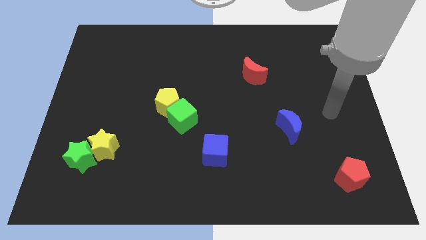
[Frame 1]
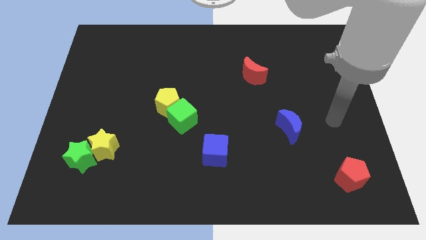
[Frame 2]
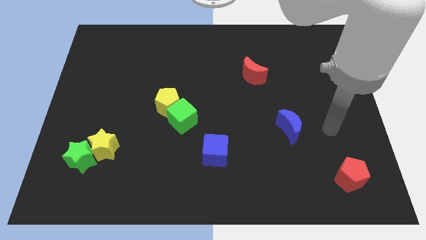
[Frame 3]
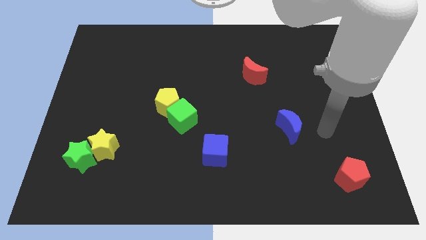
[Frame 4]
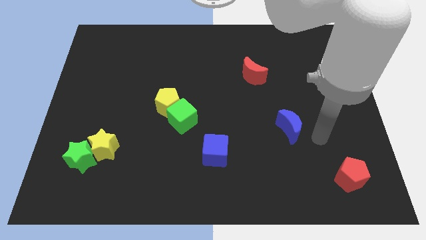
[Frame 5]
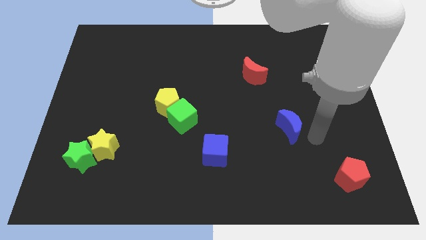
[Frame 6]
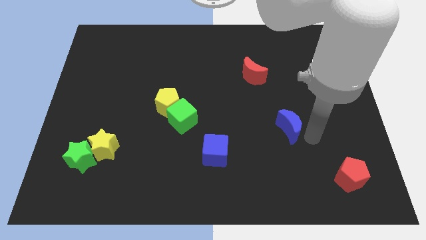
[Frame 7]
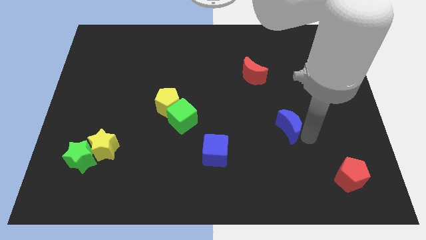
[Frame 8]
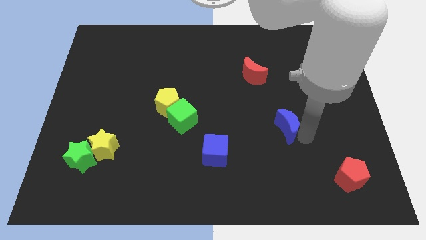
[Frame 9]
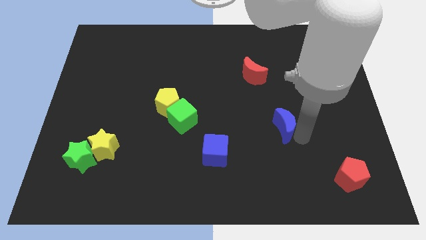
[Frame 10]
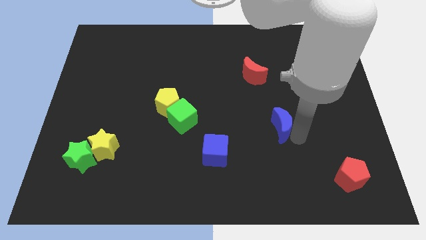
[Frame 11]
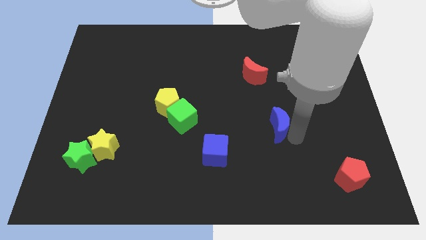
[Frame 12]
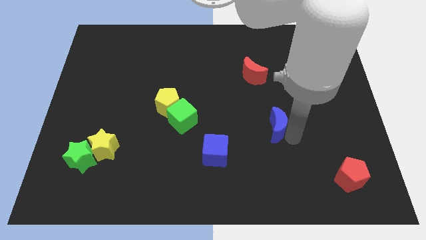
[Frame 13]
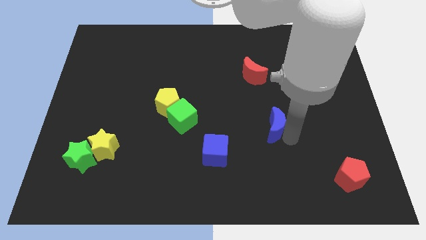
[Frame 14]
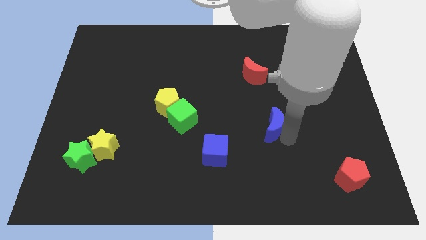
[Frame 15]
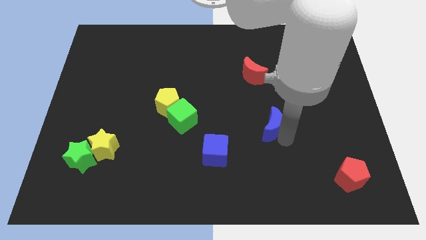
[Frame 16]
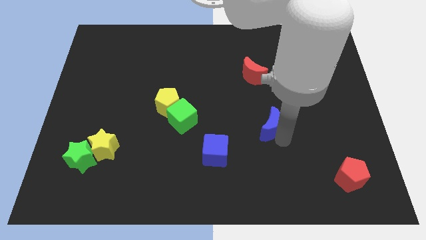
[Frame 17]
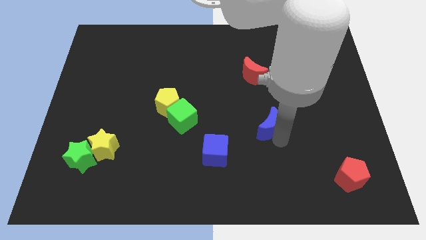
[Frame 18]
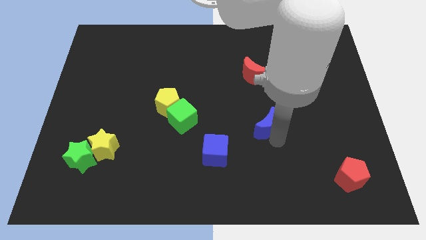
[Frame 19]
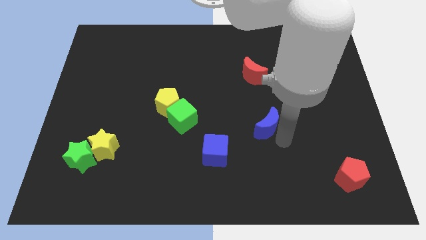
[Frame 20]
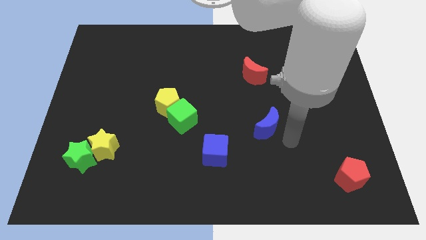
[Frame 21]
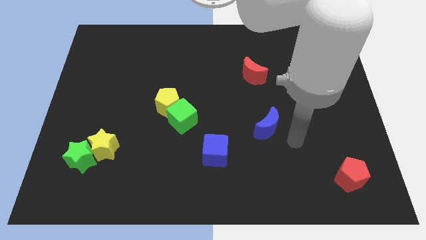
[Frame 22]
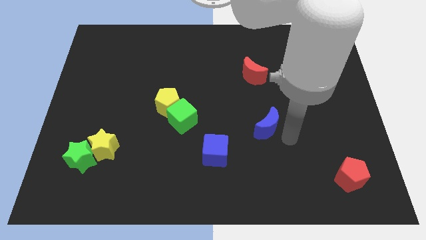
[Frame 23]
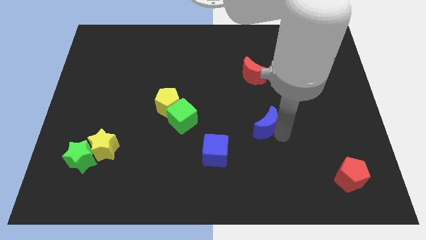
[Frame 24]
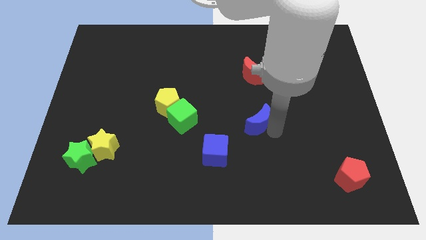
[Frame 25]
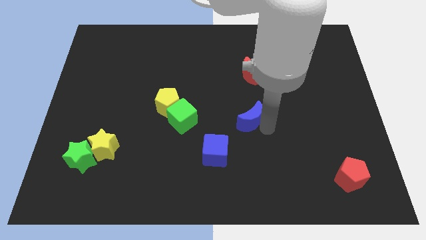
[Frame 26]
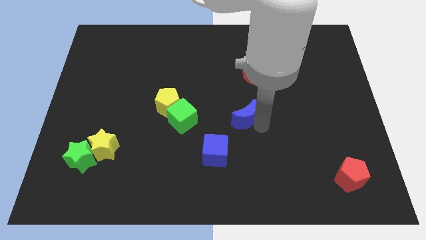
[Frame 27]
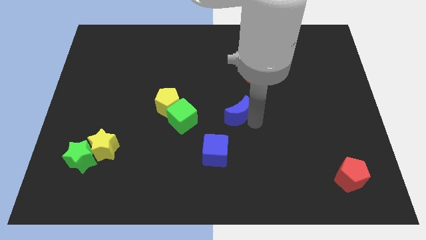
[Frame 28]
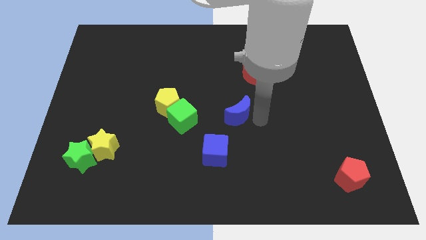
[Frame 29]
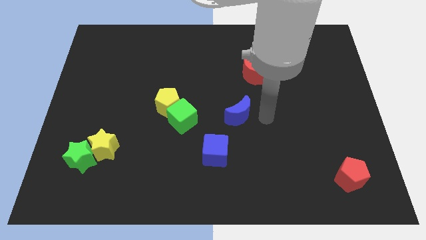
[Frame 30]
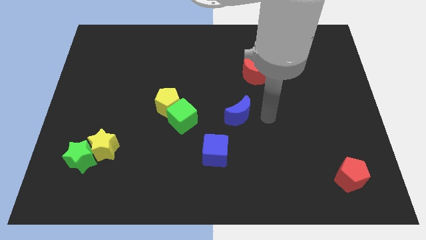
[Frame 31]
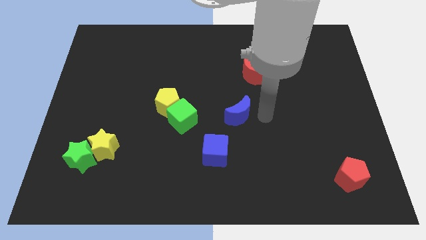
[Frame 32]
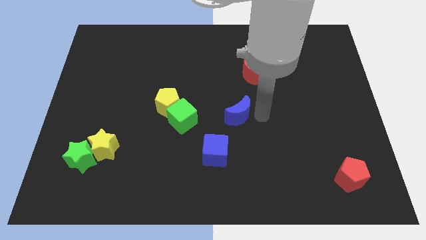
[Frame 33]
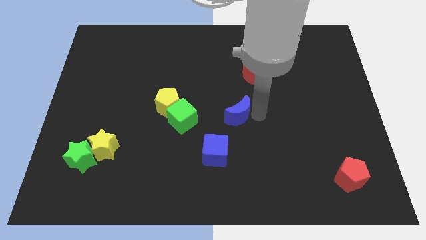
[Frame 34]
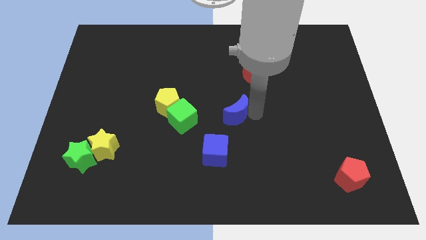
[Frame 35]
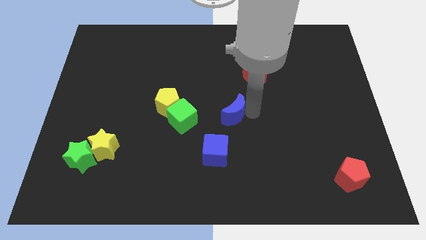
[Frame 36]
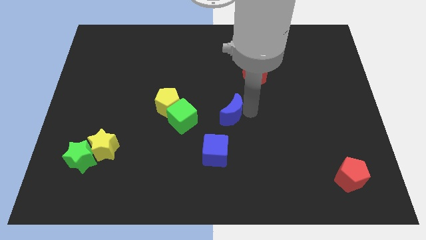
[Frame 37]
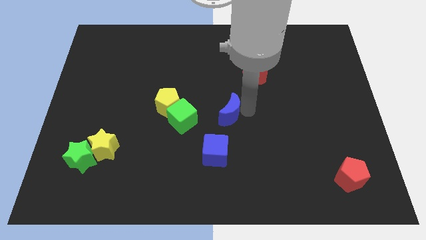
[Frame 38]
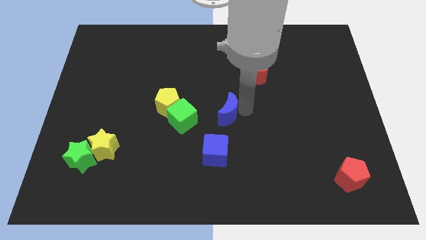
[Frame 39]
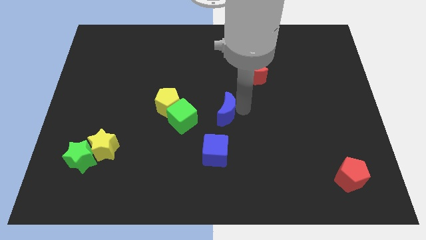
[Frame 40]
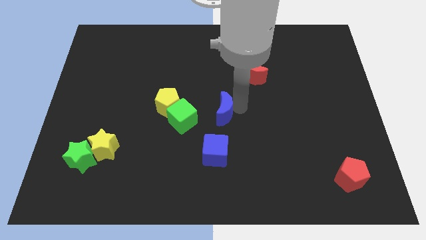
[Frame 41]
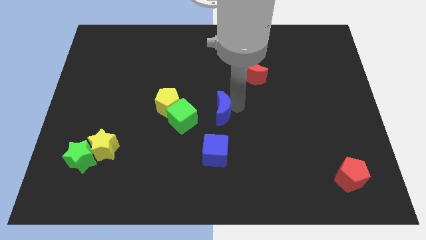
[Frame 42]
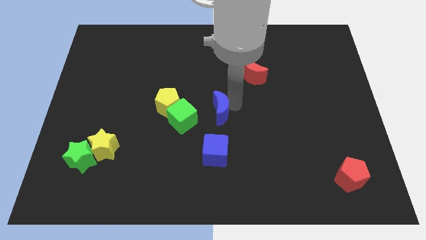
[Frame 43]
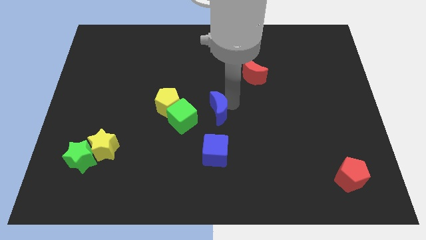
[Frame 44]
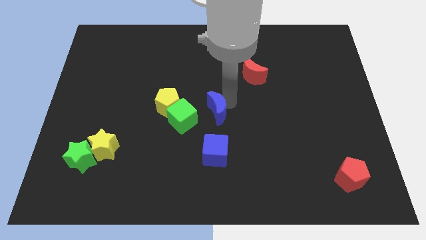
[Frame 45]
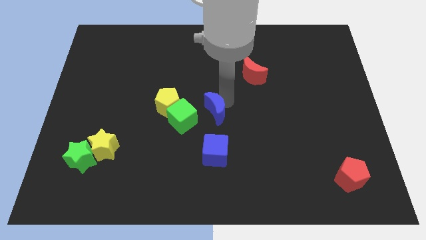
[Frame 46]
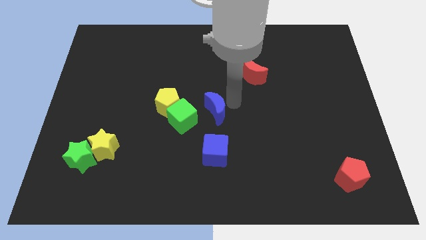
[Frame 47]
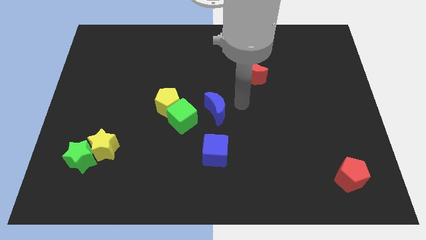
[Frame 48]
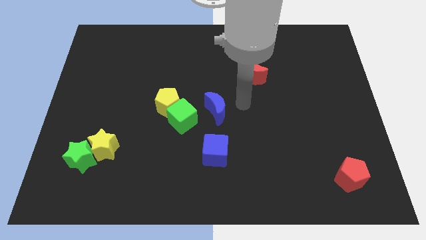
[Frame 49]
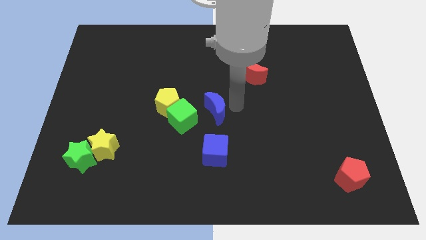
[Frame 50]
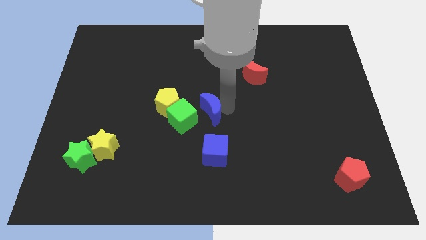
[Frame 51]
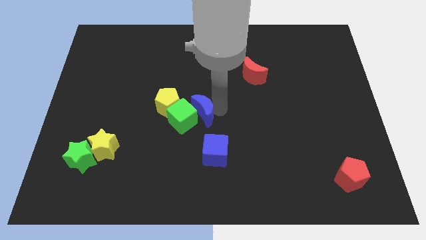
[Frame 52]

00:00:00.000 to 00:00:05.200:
push the blue moon close to the green cube

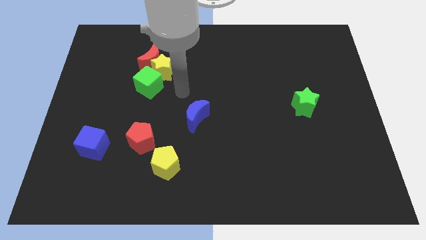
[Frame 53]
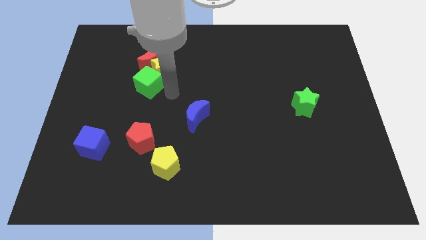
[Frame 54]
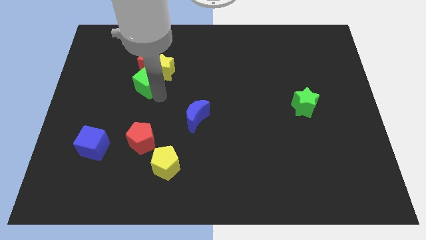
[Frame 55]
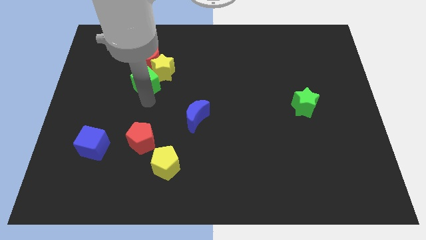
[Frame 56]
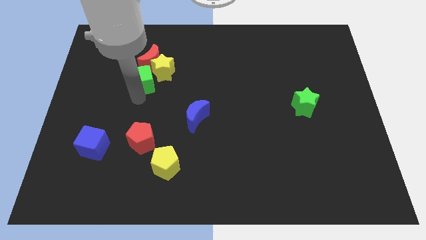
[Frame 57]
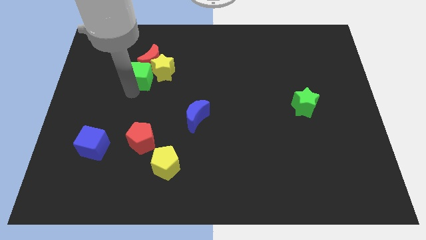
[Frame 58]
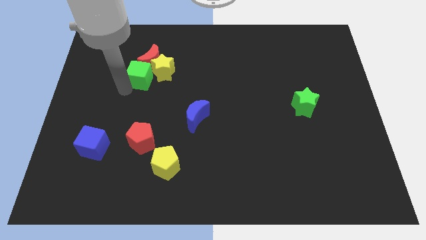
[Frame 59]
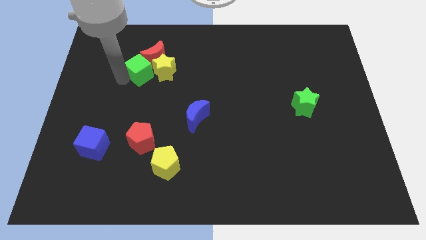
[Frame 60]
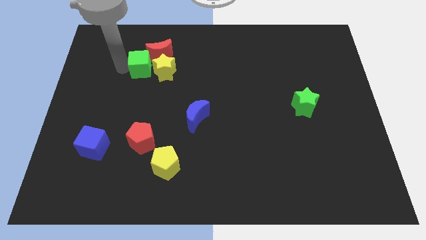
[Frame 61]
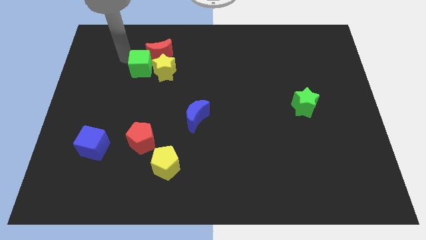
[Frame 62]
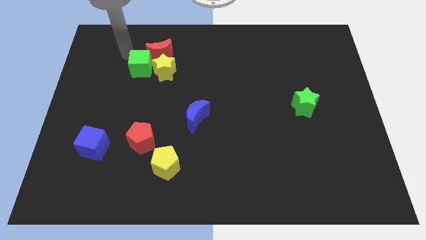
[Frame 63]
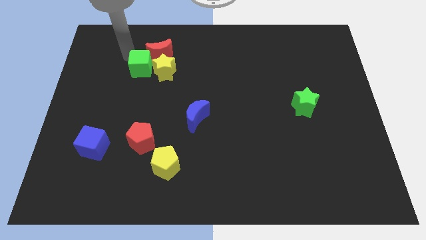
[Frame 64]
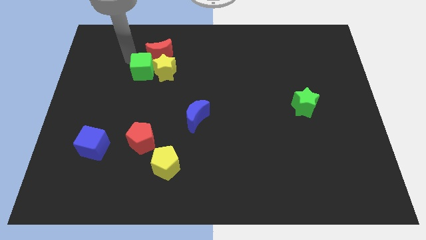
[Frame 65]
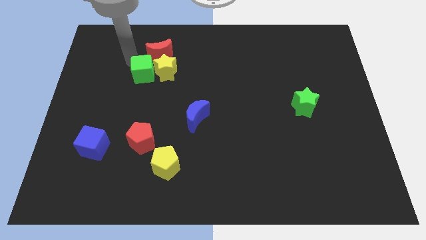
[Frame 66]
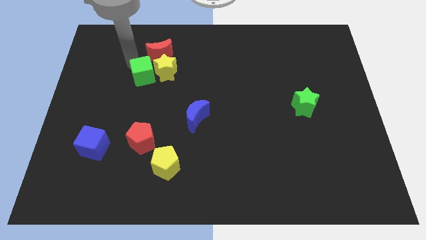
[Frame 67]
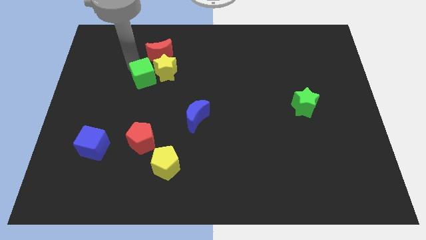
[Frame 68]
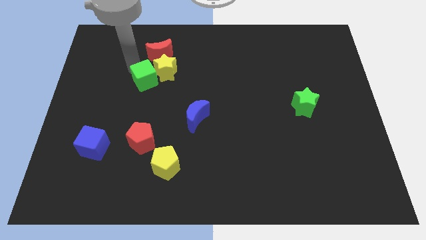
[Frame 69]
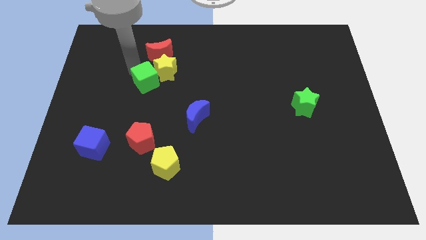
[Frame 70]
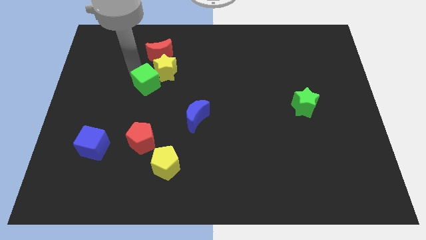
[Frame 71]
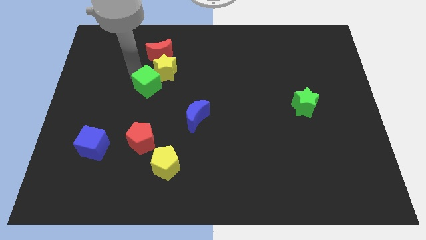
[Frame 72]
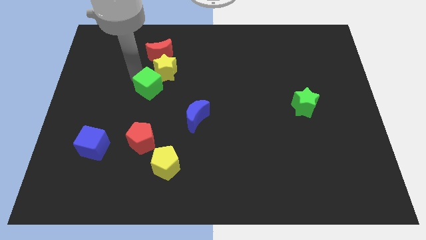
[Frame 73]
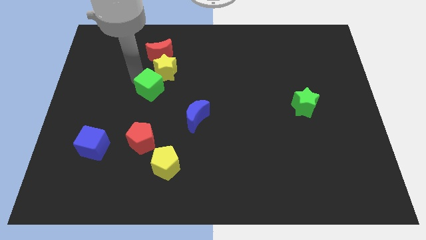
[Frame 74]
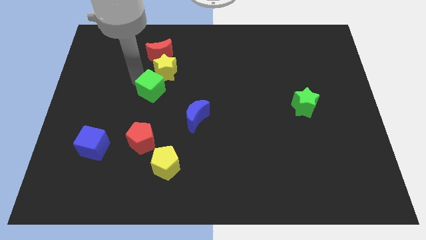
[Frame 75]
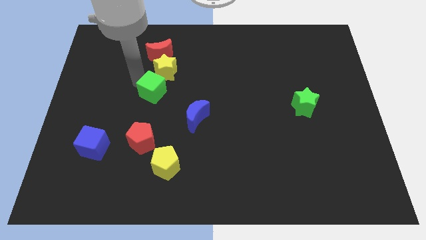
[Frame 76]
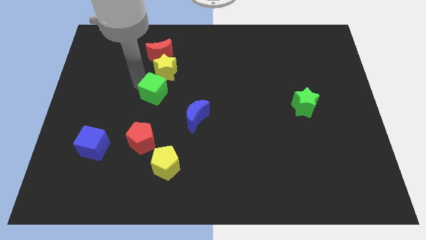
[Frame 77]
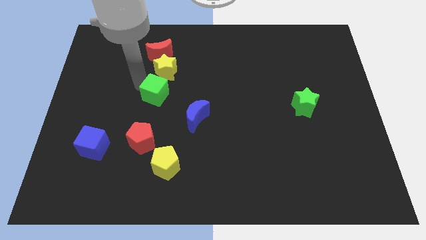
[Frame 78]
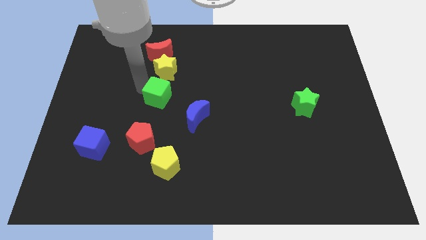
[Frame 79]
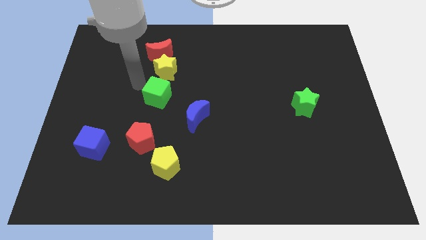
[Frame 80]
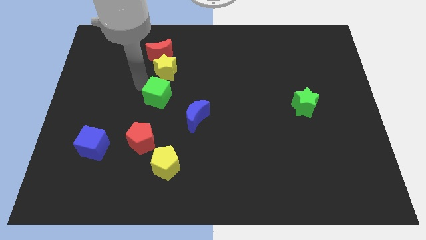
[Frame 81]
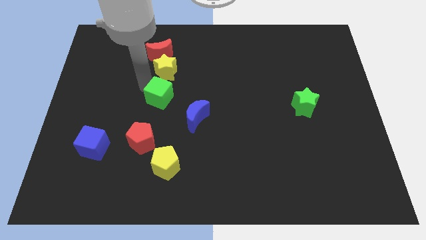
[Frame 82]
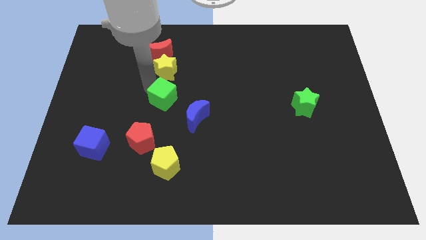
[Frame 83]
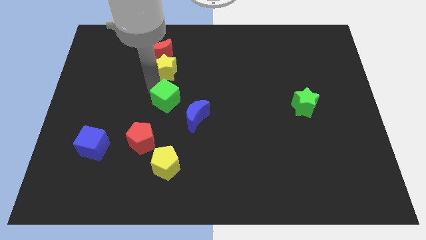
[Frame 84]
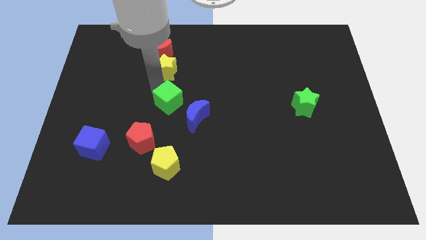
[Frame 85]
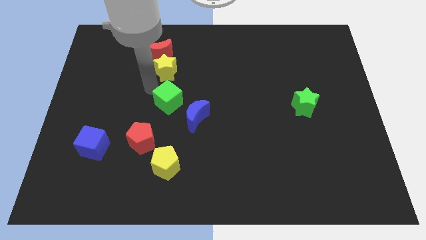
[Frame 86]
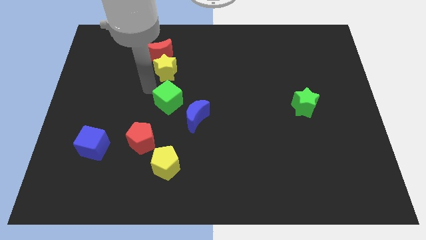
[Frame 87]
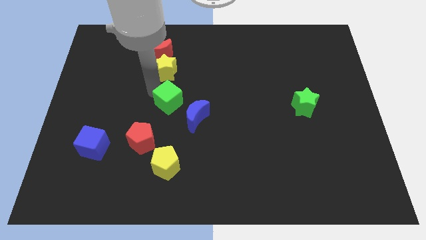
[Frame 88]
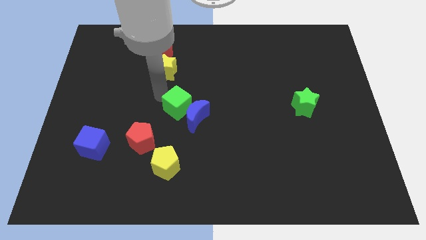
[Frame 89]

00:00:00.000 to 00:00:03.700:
slide the green cube towards the blue moon
